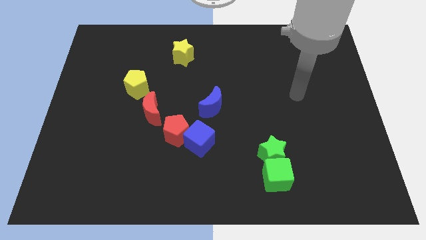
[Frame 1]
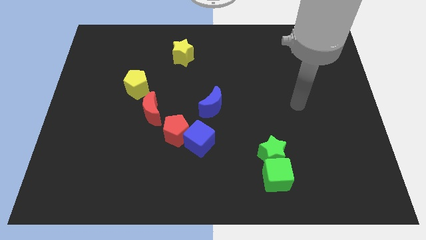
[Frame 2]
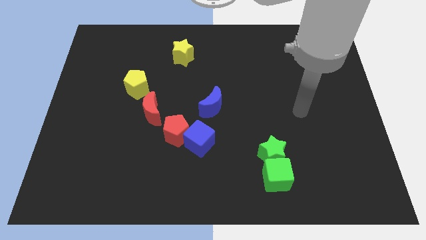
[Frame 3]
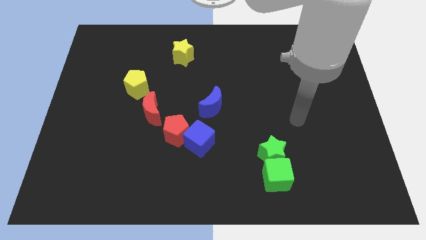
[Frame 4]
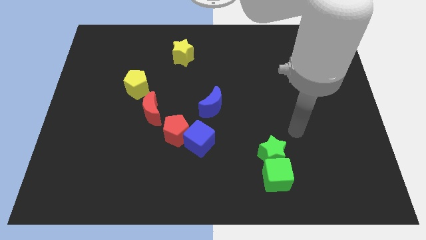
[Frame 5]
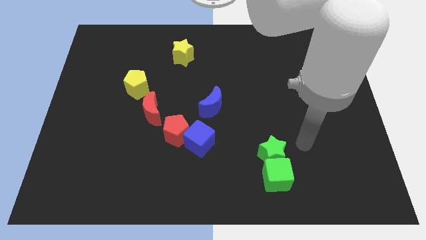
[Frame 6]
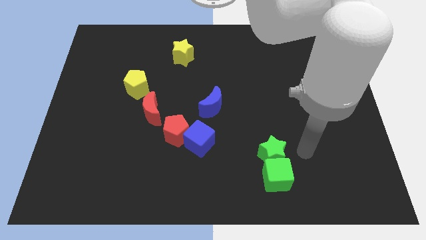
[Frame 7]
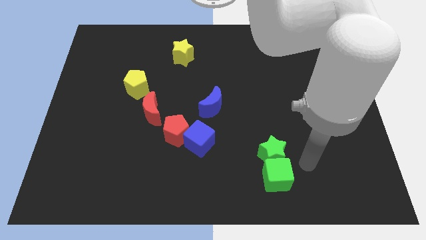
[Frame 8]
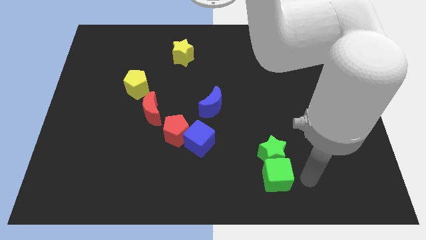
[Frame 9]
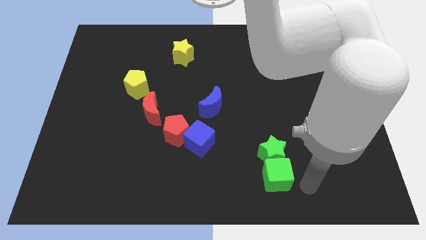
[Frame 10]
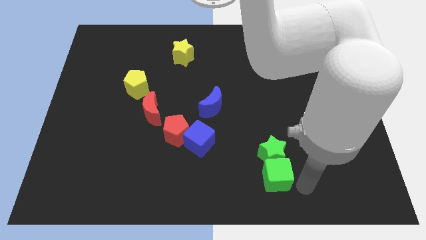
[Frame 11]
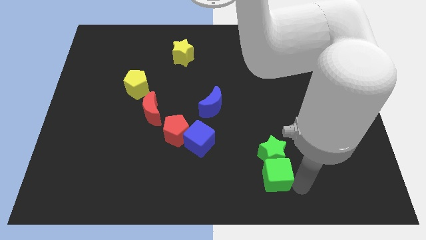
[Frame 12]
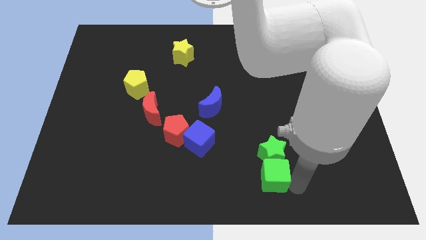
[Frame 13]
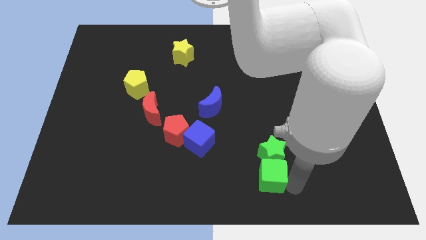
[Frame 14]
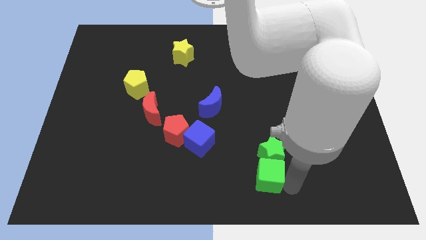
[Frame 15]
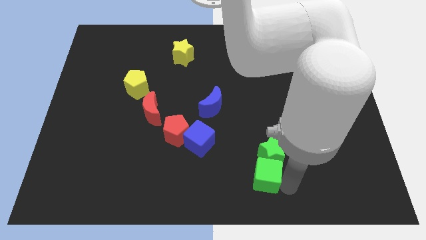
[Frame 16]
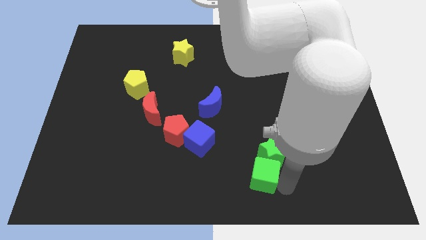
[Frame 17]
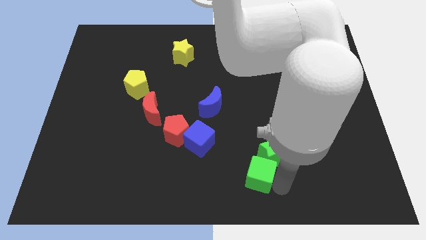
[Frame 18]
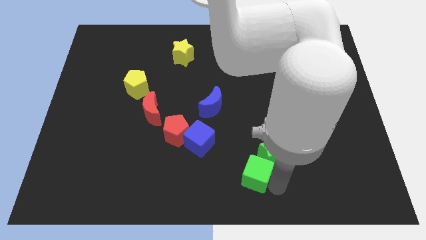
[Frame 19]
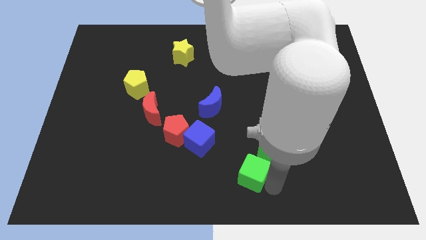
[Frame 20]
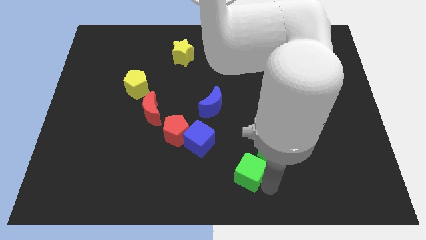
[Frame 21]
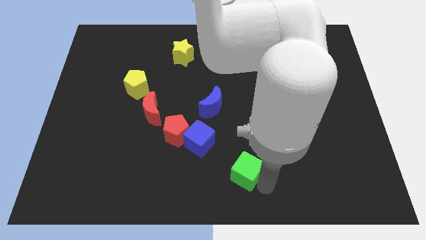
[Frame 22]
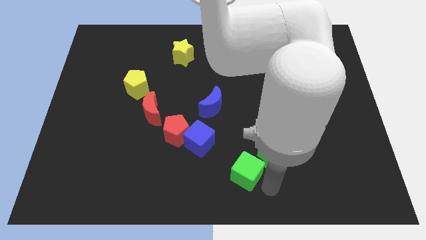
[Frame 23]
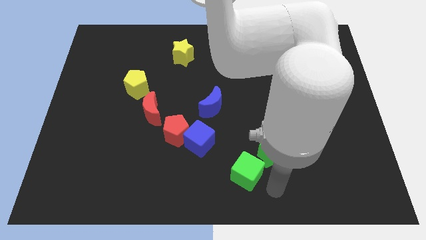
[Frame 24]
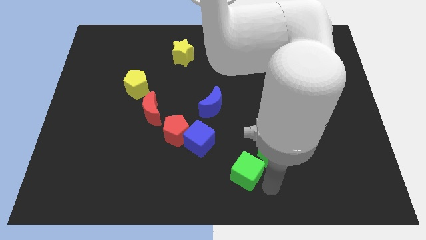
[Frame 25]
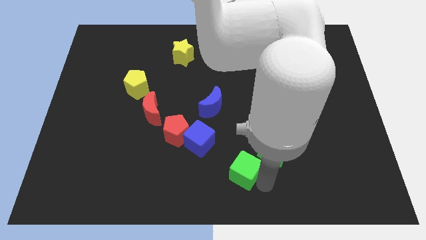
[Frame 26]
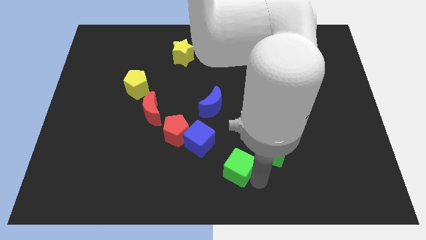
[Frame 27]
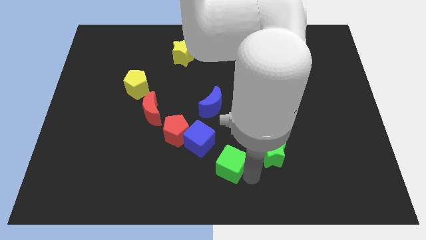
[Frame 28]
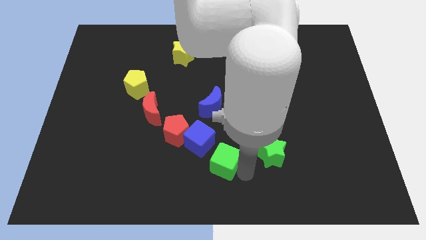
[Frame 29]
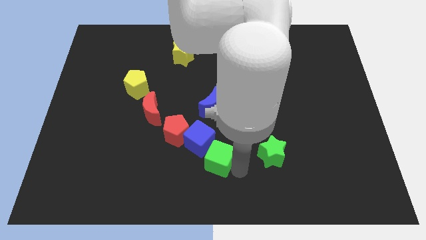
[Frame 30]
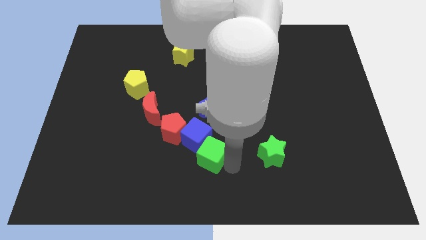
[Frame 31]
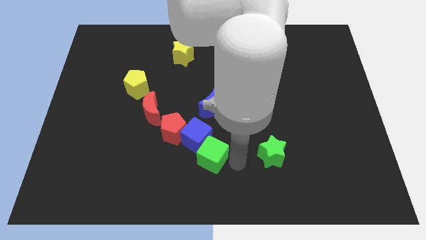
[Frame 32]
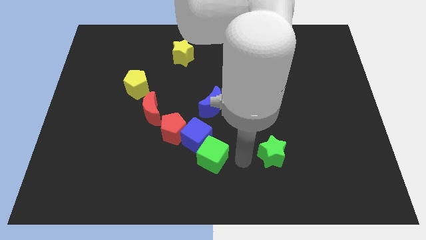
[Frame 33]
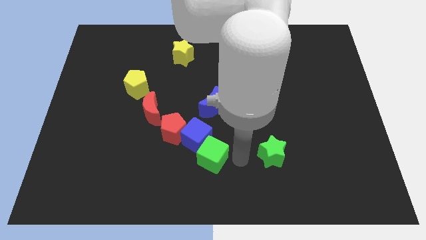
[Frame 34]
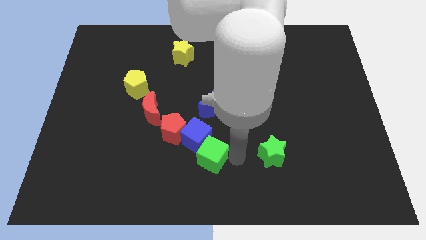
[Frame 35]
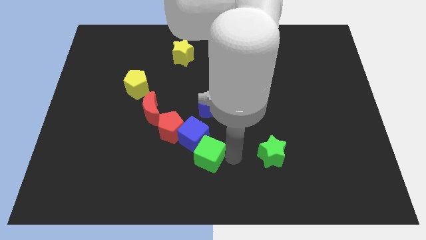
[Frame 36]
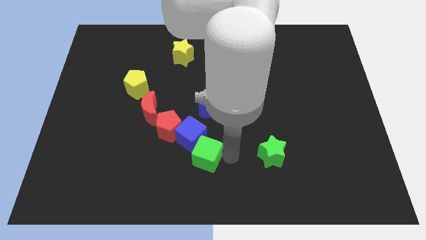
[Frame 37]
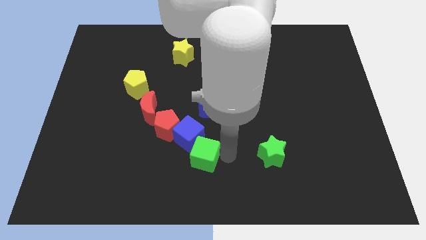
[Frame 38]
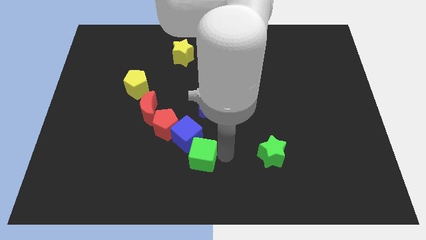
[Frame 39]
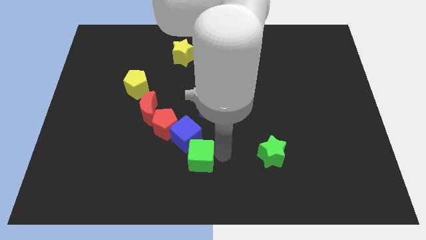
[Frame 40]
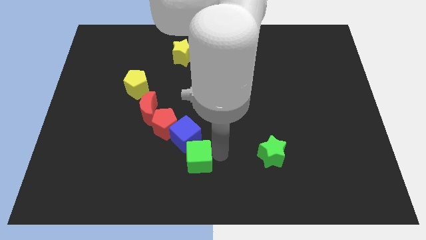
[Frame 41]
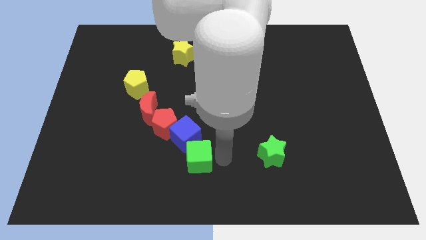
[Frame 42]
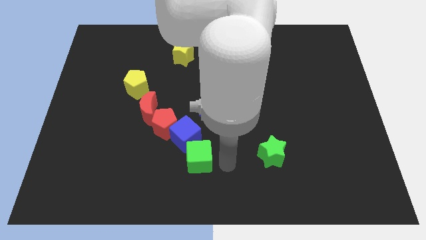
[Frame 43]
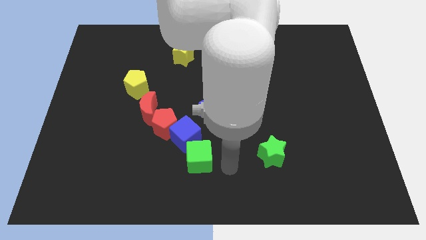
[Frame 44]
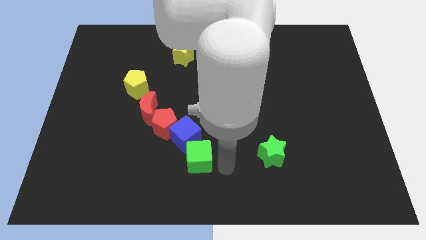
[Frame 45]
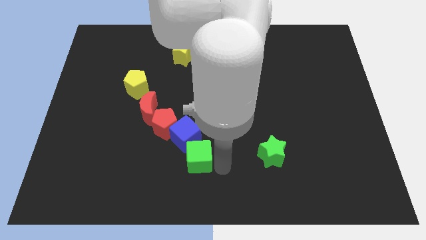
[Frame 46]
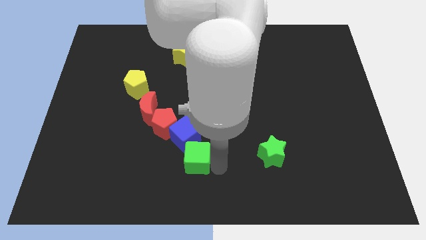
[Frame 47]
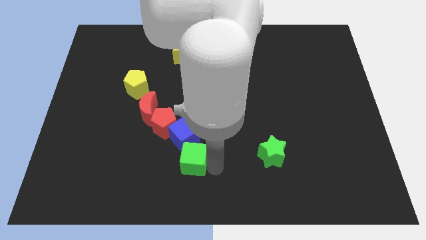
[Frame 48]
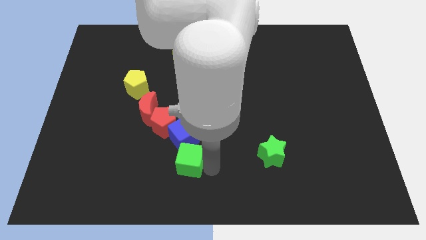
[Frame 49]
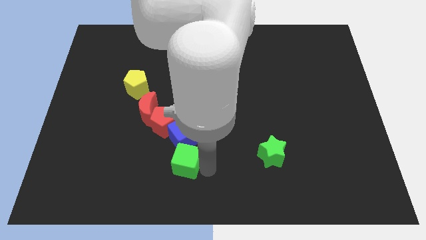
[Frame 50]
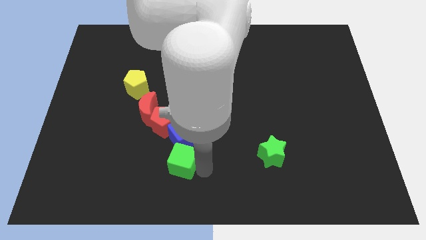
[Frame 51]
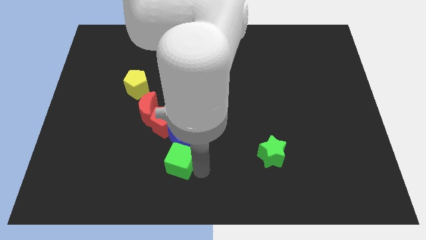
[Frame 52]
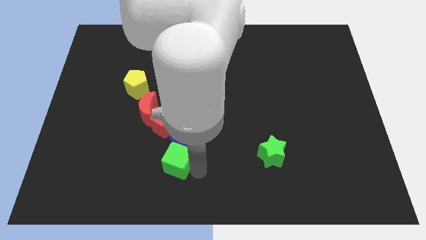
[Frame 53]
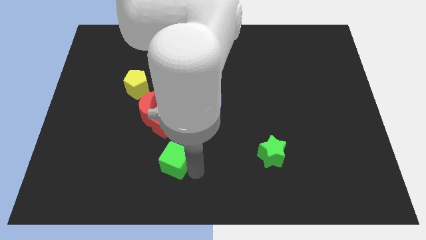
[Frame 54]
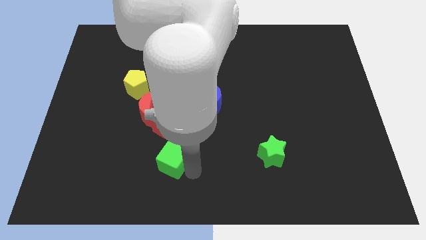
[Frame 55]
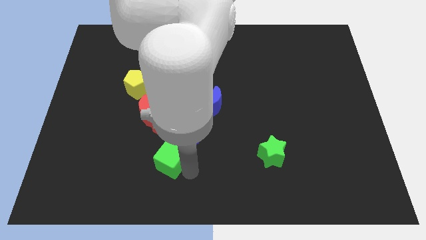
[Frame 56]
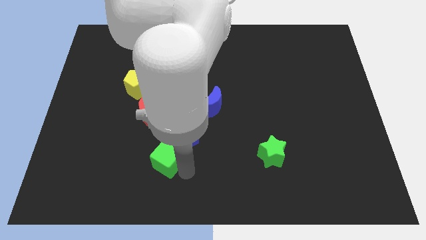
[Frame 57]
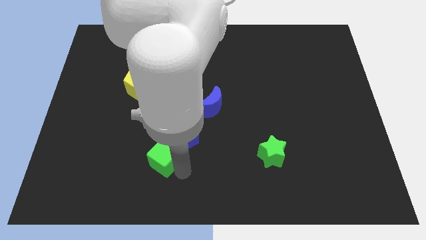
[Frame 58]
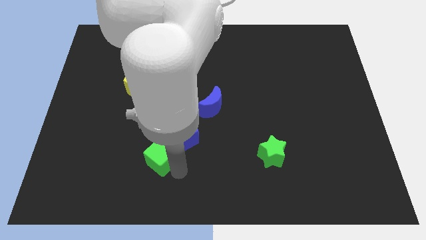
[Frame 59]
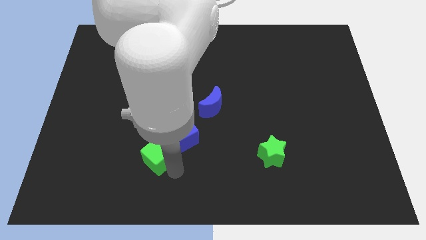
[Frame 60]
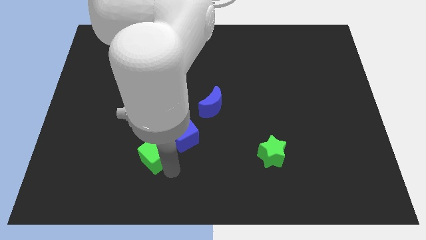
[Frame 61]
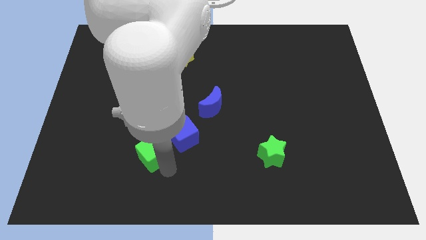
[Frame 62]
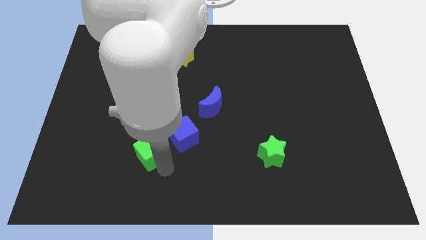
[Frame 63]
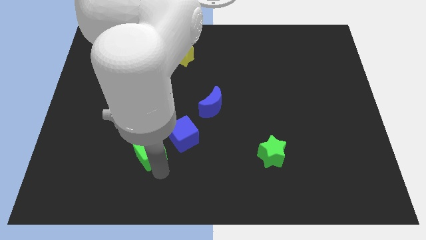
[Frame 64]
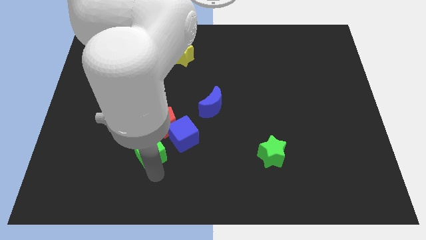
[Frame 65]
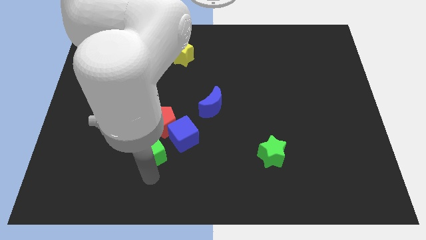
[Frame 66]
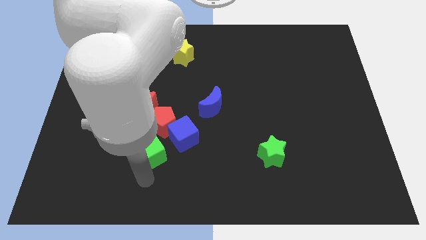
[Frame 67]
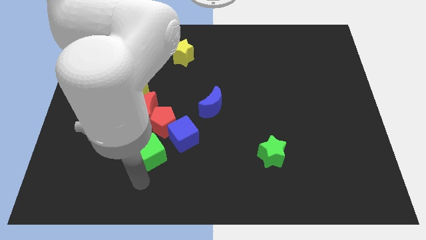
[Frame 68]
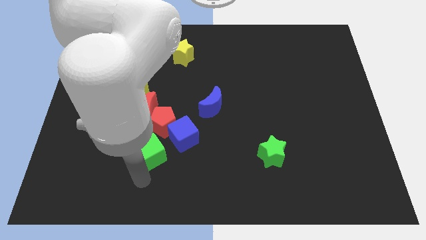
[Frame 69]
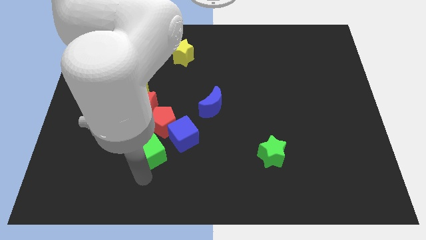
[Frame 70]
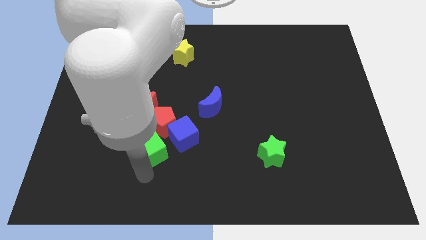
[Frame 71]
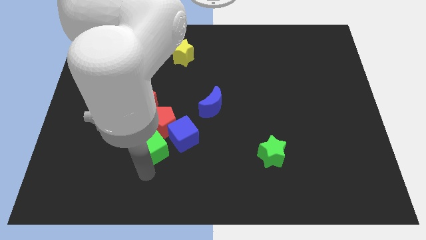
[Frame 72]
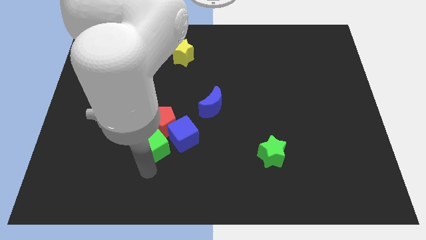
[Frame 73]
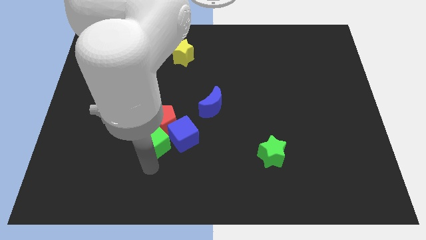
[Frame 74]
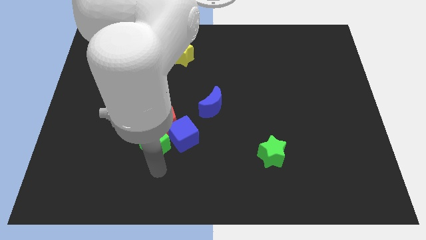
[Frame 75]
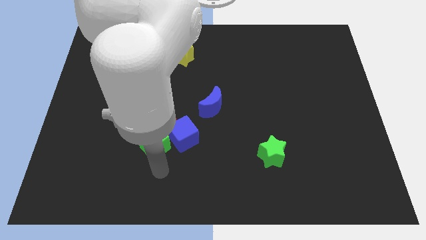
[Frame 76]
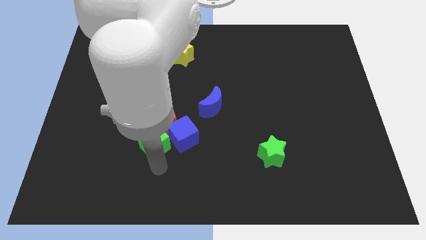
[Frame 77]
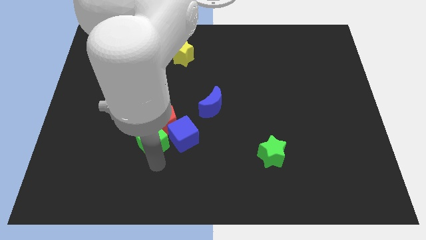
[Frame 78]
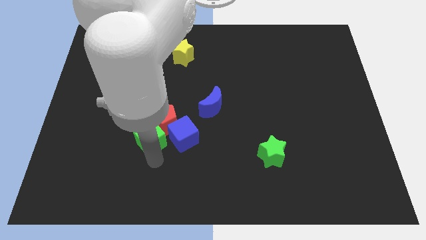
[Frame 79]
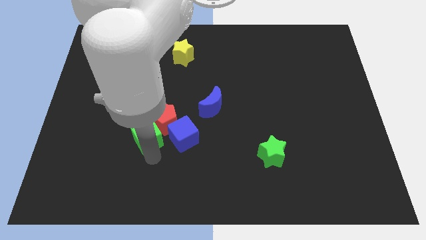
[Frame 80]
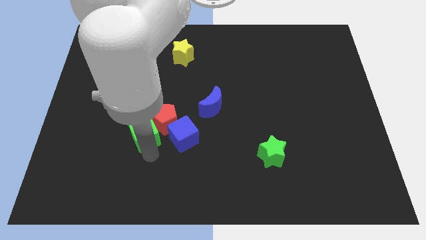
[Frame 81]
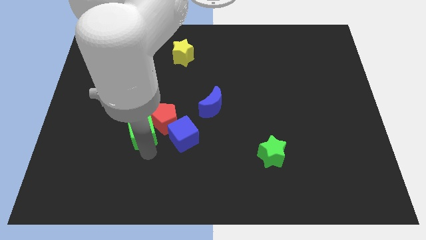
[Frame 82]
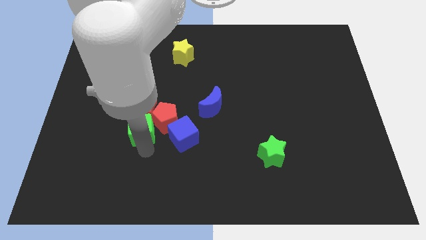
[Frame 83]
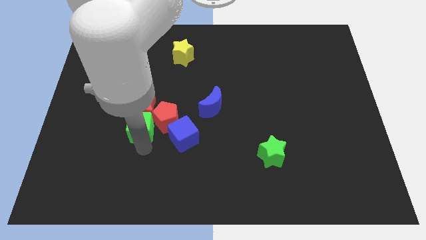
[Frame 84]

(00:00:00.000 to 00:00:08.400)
put the green cube next to the red moon
